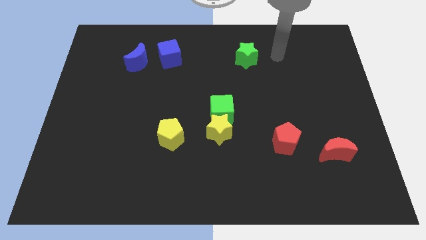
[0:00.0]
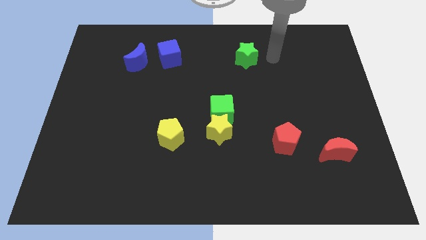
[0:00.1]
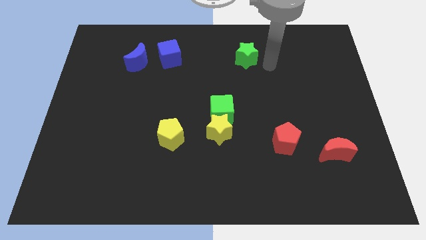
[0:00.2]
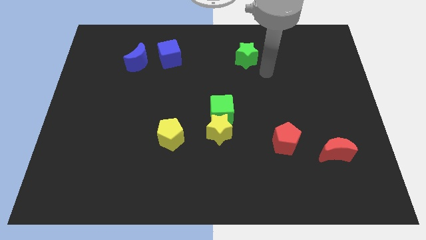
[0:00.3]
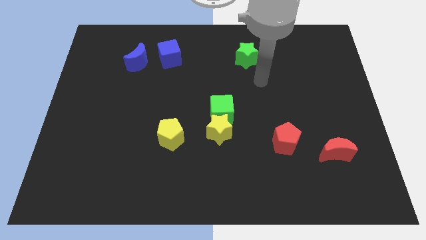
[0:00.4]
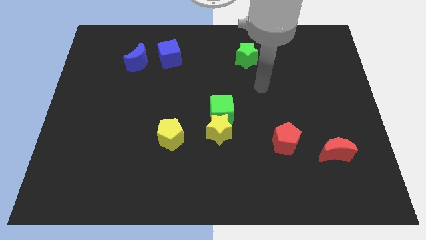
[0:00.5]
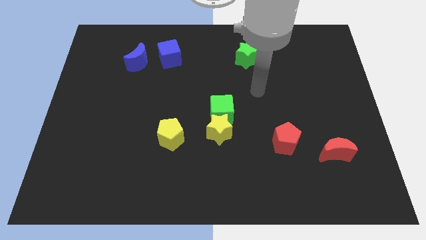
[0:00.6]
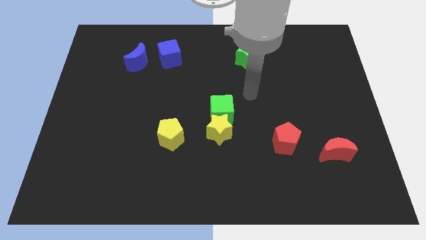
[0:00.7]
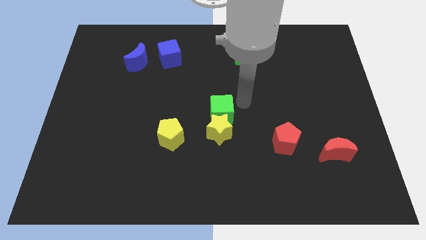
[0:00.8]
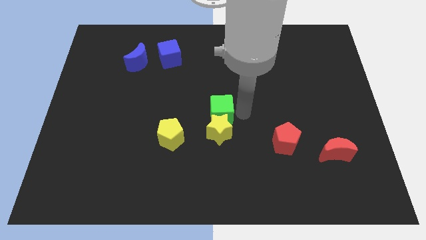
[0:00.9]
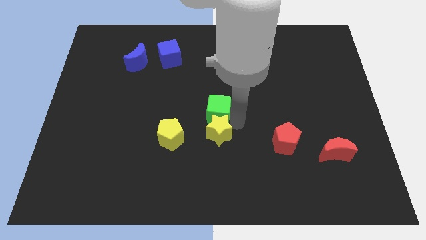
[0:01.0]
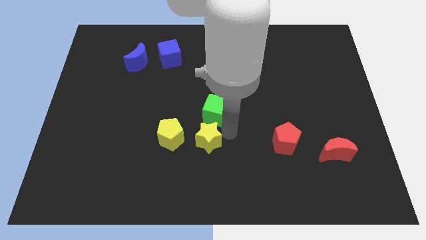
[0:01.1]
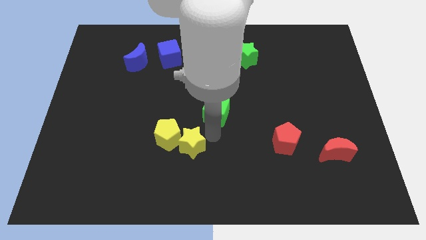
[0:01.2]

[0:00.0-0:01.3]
move the green cube away from the yellow star

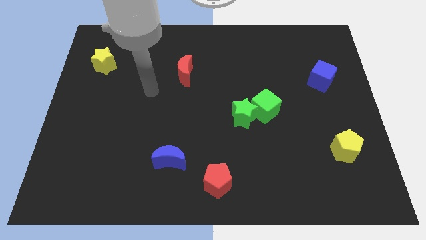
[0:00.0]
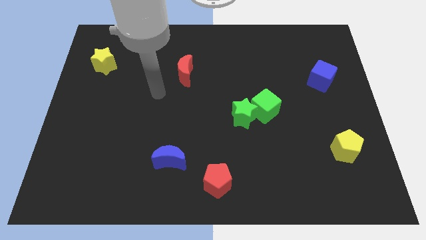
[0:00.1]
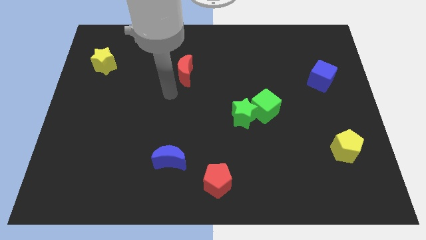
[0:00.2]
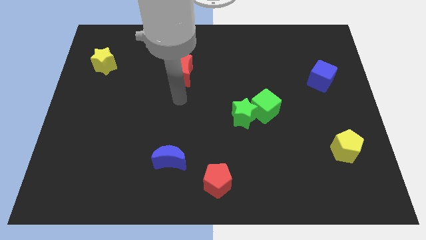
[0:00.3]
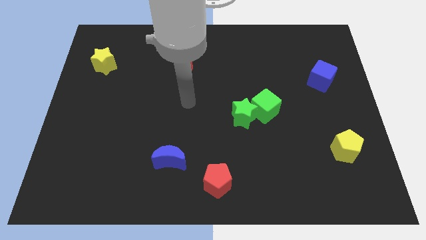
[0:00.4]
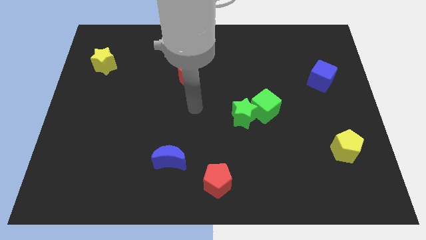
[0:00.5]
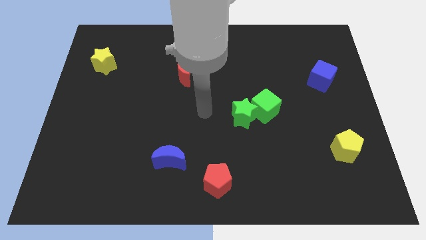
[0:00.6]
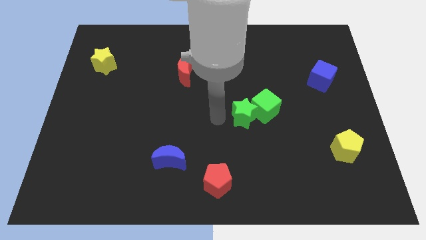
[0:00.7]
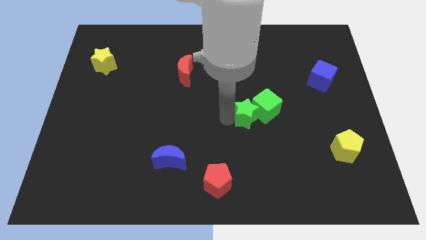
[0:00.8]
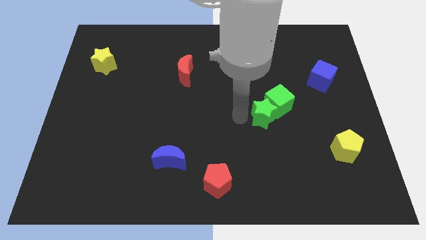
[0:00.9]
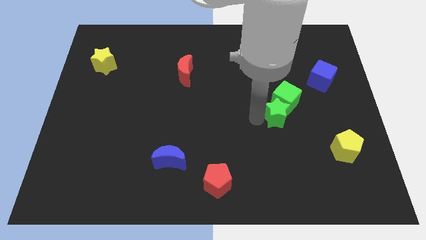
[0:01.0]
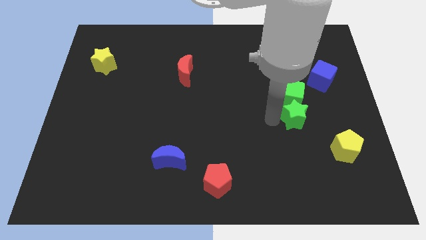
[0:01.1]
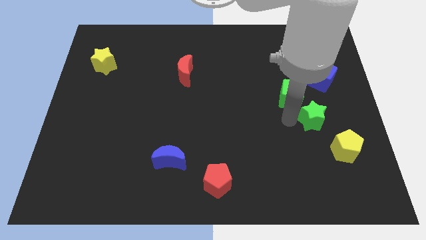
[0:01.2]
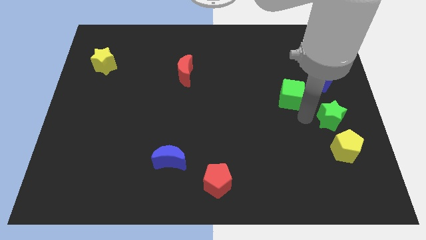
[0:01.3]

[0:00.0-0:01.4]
pull the green cube apart from the green star

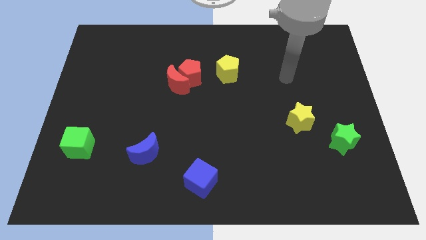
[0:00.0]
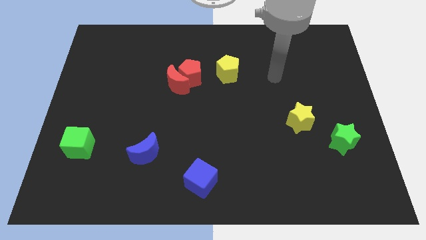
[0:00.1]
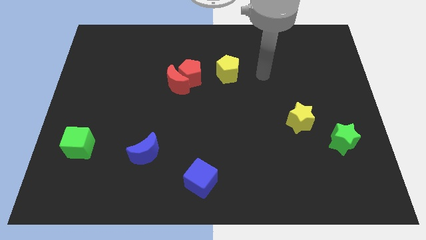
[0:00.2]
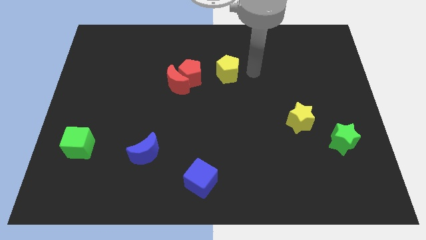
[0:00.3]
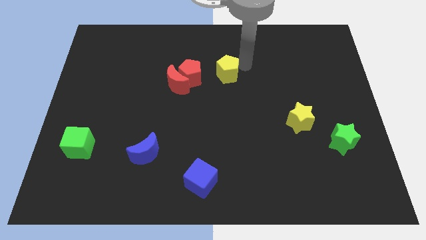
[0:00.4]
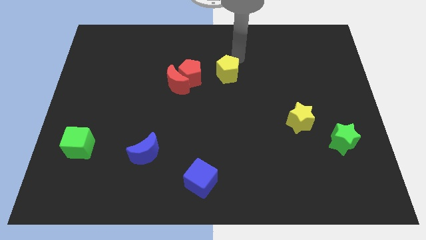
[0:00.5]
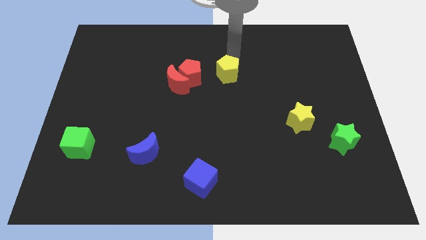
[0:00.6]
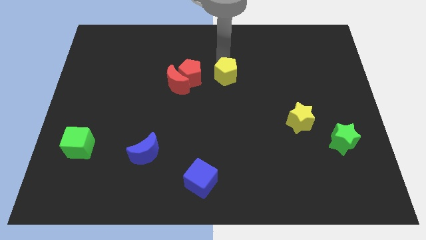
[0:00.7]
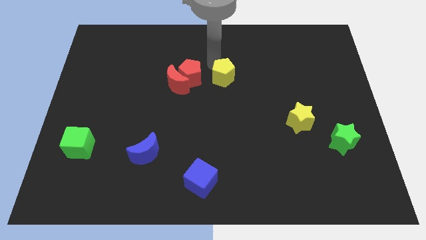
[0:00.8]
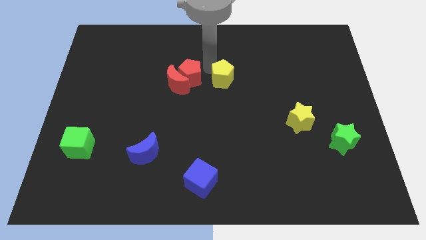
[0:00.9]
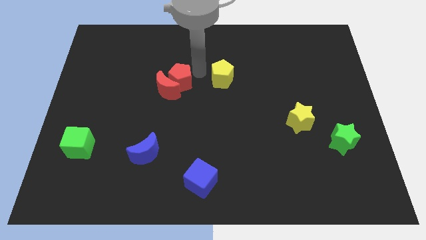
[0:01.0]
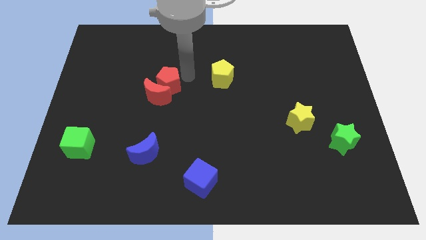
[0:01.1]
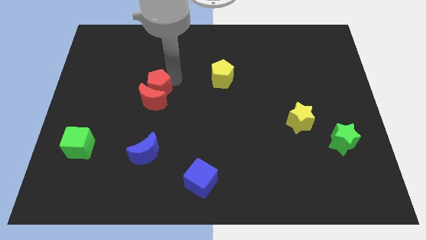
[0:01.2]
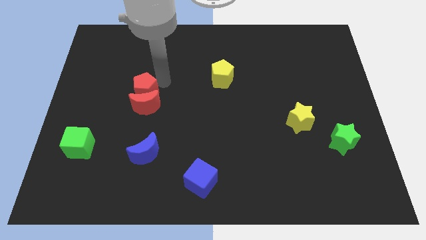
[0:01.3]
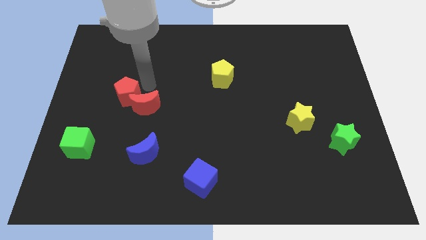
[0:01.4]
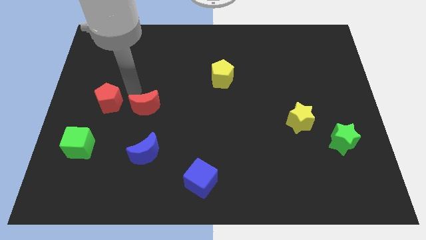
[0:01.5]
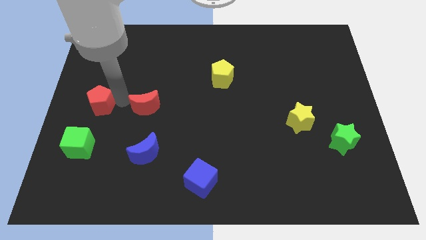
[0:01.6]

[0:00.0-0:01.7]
pull the red moon apart from the red pentagon

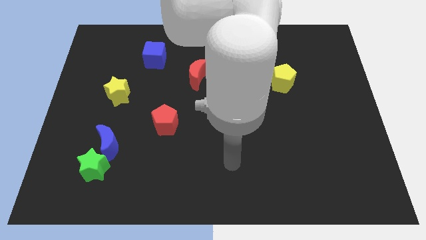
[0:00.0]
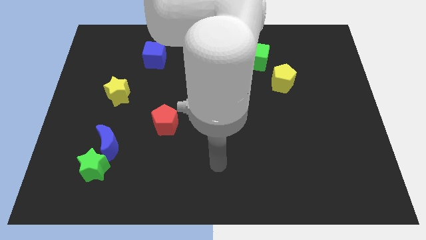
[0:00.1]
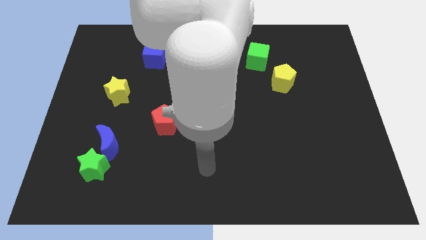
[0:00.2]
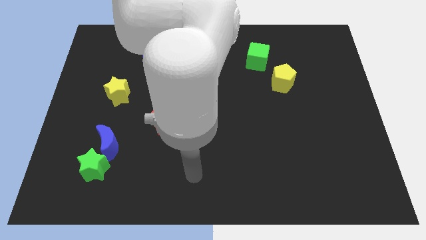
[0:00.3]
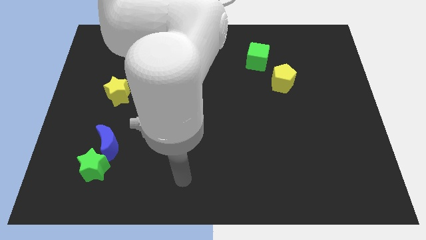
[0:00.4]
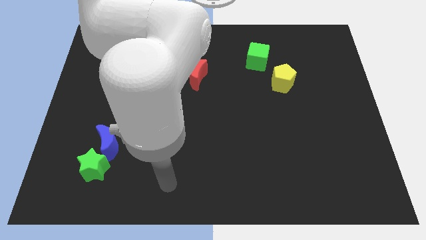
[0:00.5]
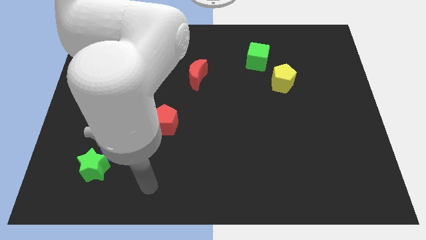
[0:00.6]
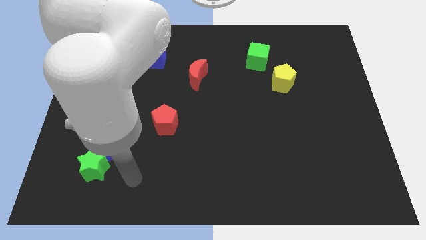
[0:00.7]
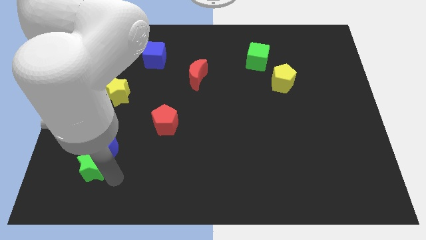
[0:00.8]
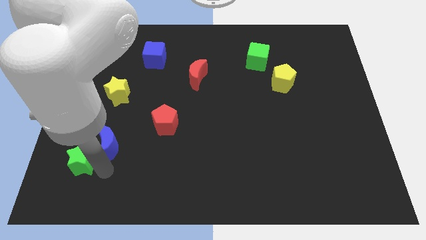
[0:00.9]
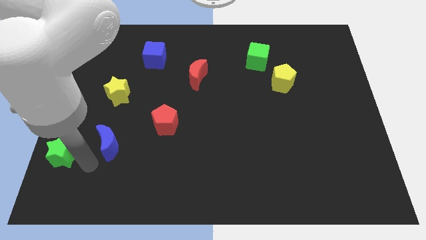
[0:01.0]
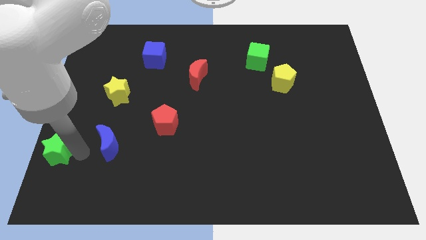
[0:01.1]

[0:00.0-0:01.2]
pull the blue moon apart from the green star

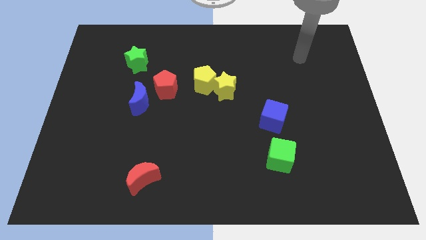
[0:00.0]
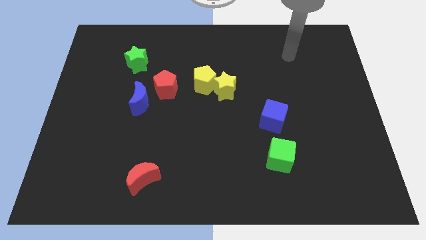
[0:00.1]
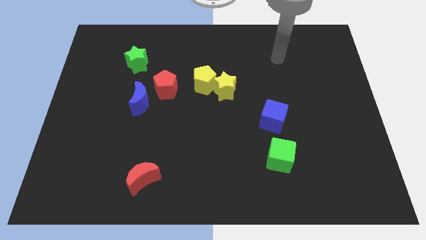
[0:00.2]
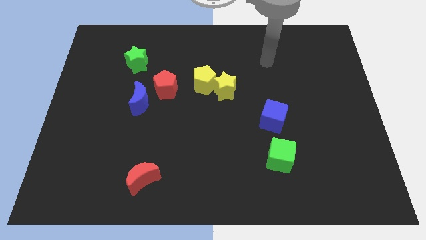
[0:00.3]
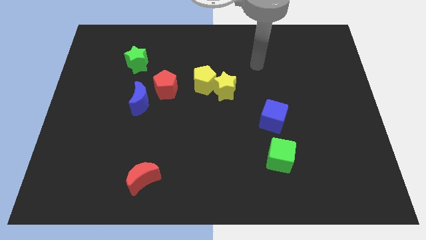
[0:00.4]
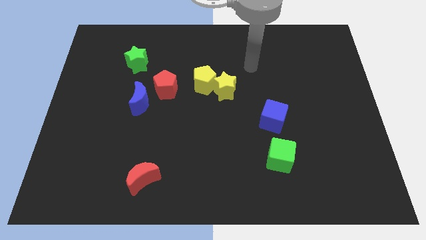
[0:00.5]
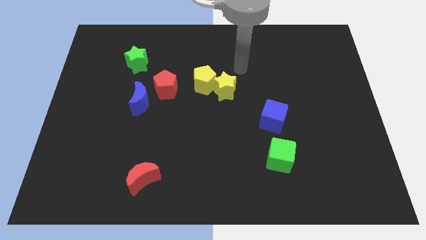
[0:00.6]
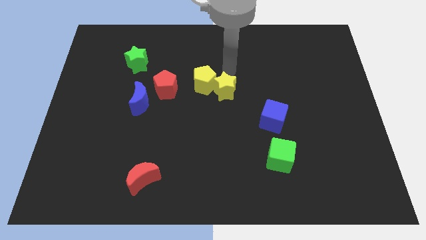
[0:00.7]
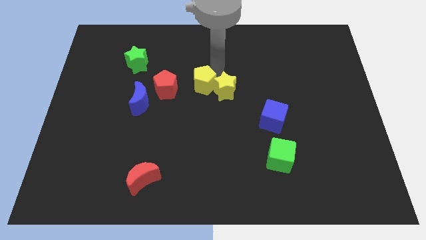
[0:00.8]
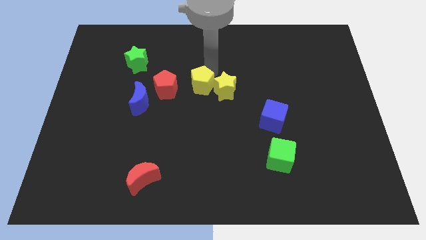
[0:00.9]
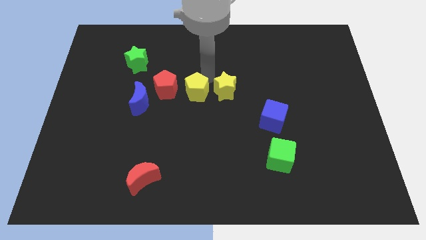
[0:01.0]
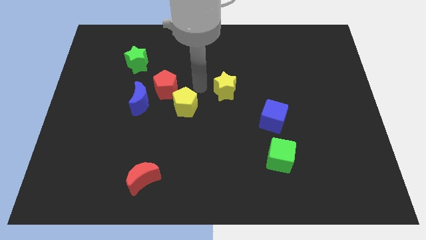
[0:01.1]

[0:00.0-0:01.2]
pull the yellow star apart from the yellow pentagon

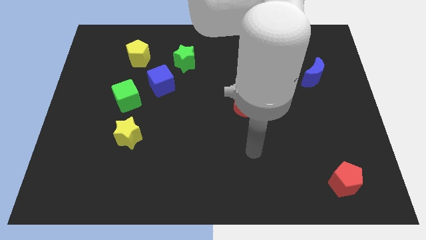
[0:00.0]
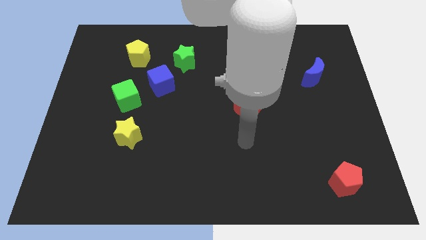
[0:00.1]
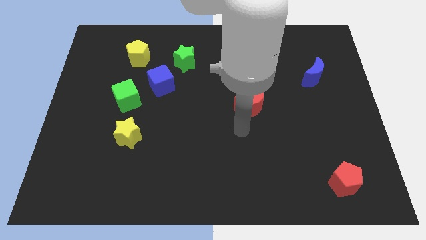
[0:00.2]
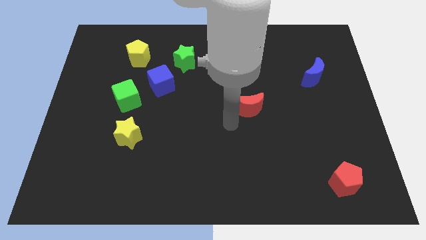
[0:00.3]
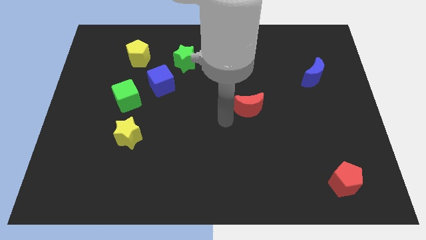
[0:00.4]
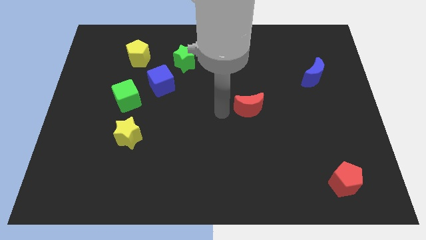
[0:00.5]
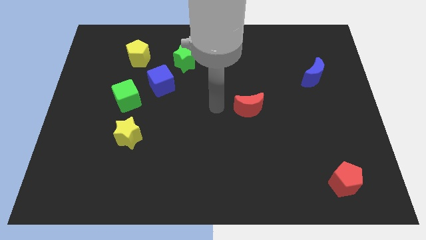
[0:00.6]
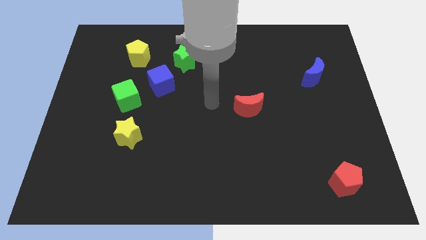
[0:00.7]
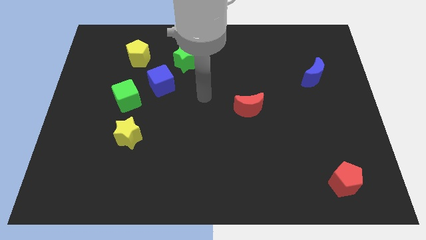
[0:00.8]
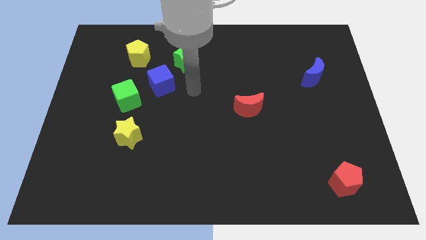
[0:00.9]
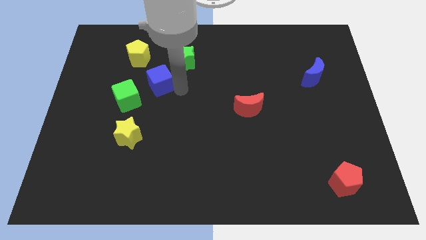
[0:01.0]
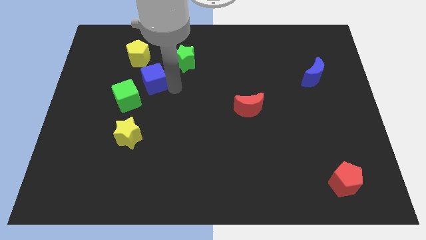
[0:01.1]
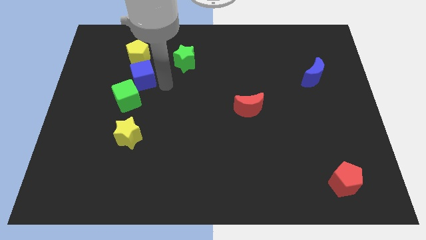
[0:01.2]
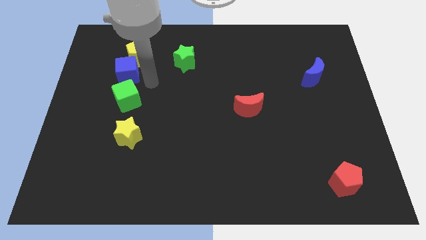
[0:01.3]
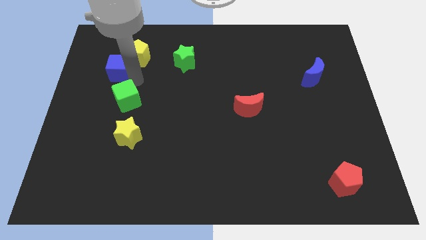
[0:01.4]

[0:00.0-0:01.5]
separate the green cube from the blue cube

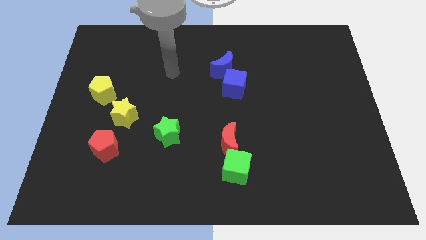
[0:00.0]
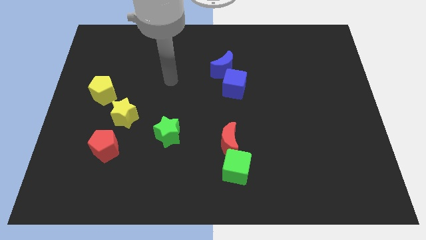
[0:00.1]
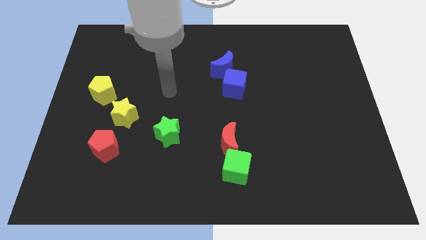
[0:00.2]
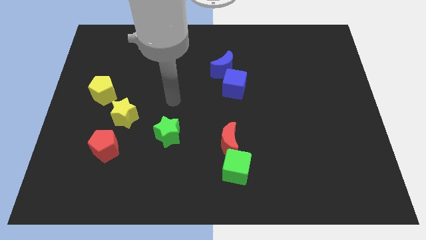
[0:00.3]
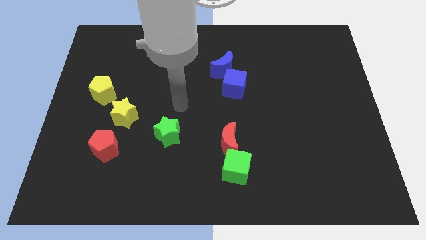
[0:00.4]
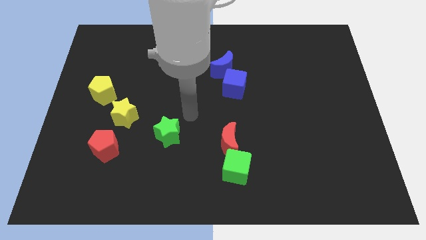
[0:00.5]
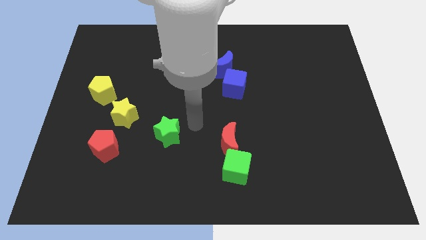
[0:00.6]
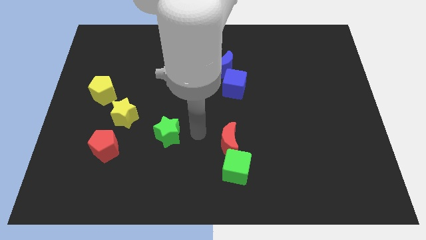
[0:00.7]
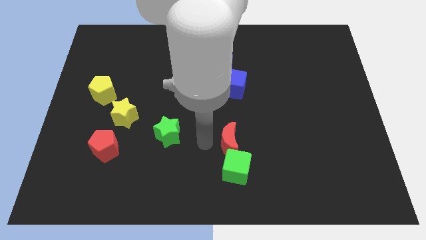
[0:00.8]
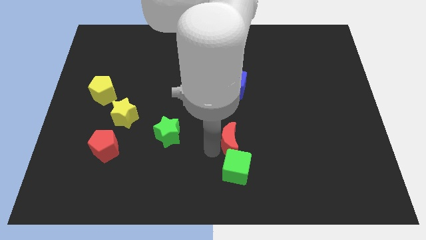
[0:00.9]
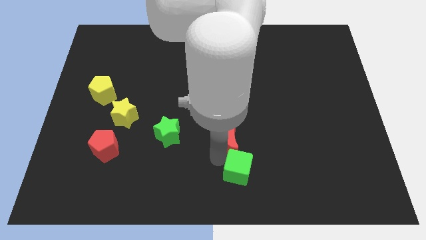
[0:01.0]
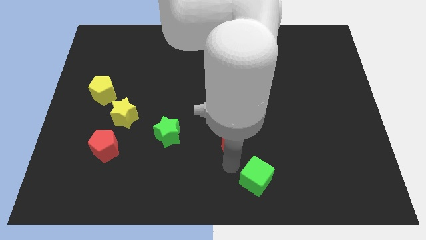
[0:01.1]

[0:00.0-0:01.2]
pull the red moon apart from the green cube
